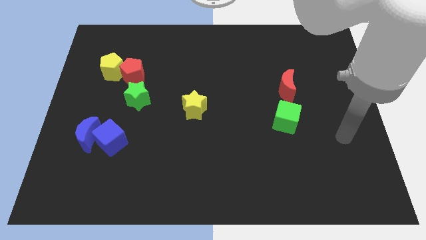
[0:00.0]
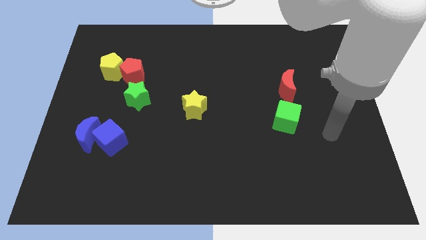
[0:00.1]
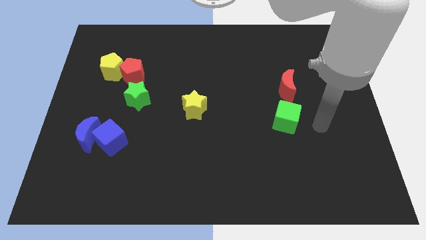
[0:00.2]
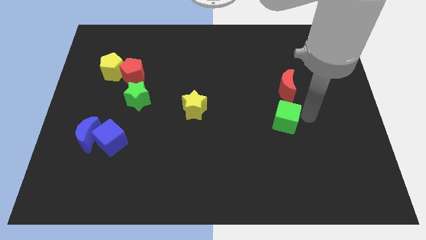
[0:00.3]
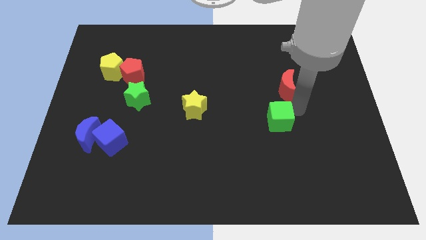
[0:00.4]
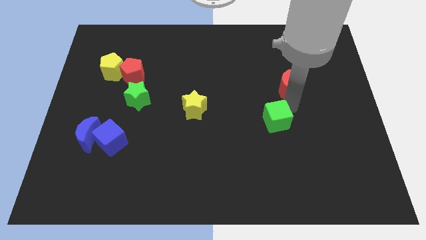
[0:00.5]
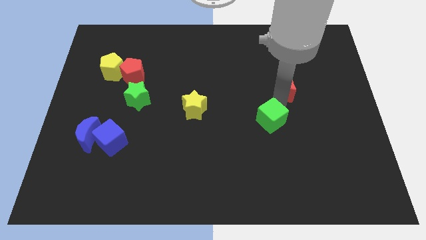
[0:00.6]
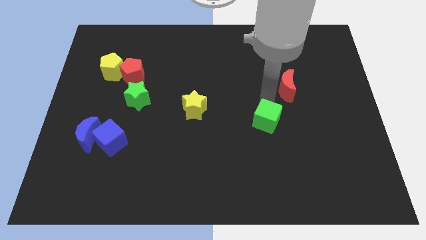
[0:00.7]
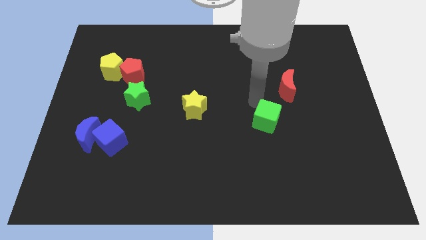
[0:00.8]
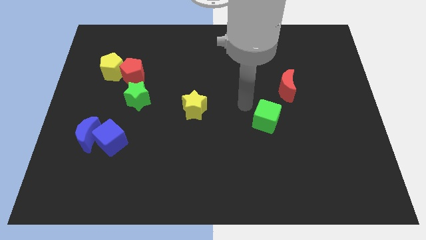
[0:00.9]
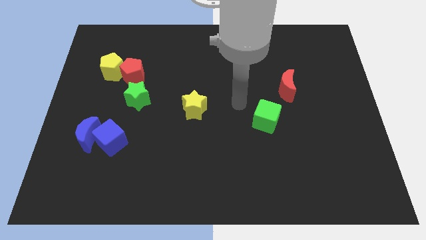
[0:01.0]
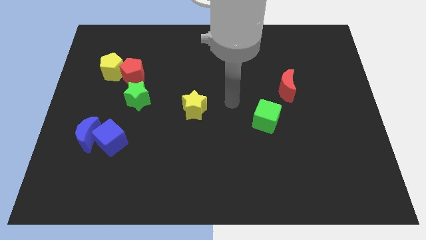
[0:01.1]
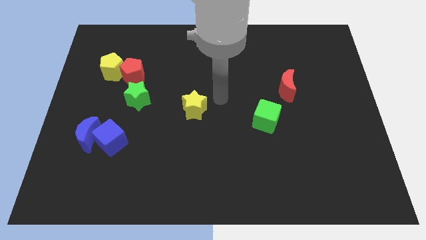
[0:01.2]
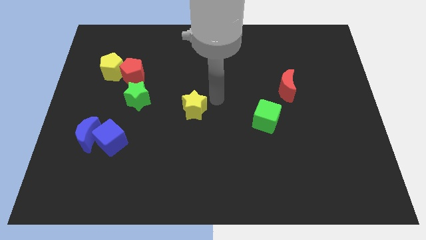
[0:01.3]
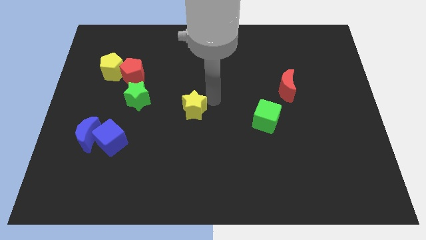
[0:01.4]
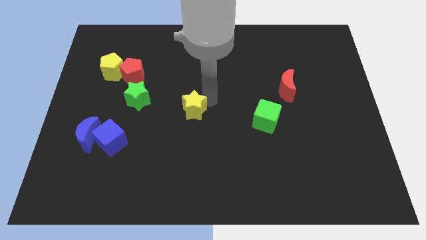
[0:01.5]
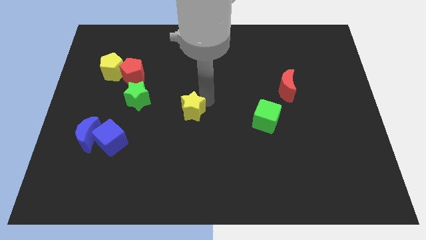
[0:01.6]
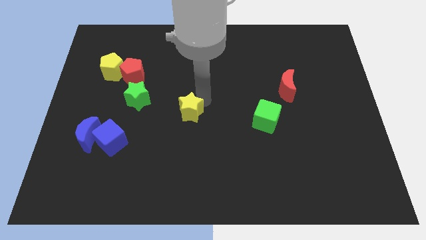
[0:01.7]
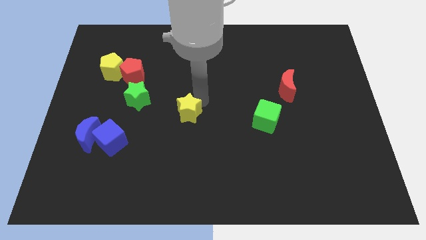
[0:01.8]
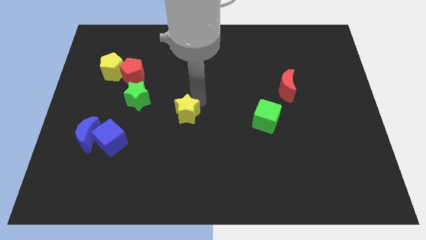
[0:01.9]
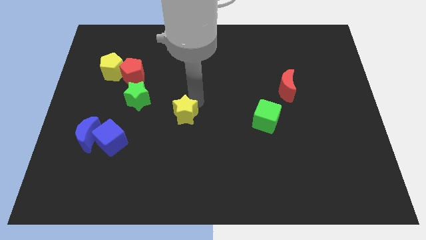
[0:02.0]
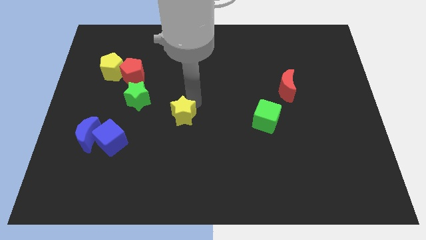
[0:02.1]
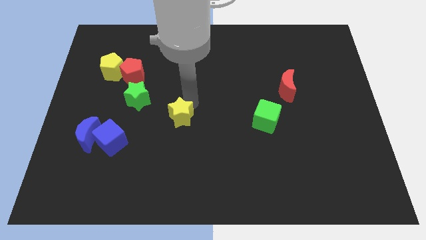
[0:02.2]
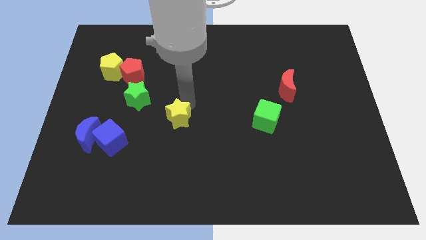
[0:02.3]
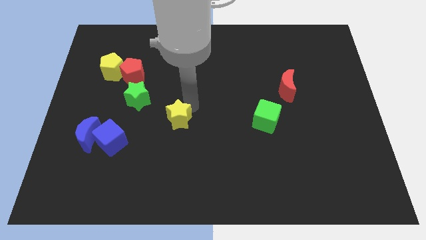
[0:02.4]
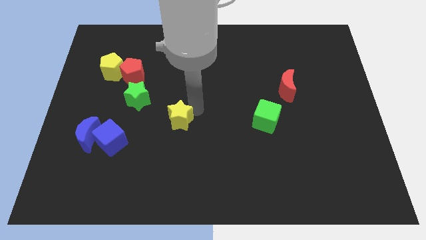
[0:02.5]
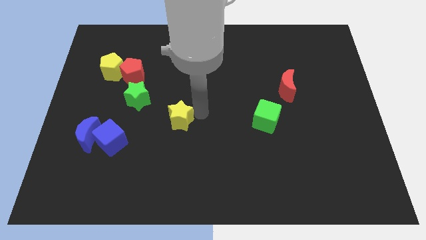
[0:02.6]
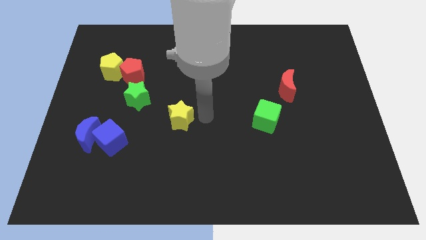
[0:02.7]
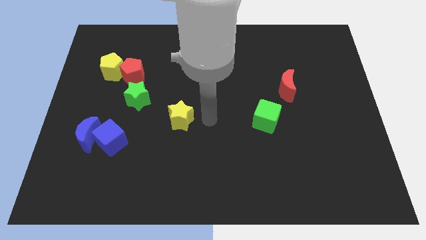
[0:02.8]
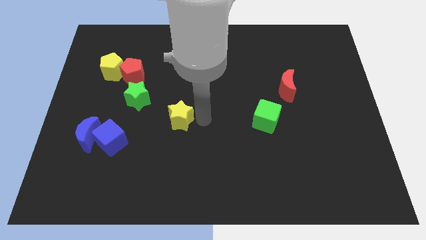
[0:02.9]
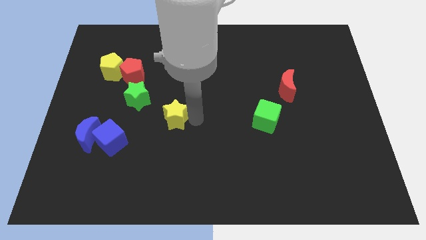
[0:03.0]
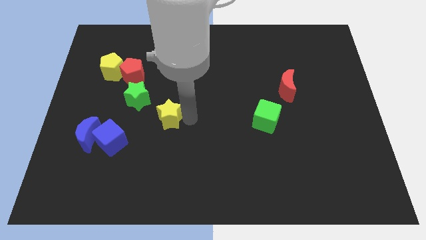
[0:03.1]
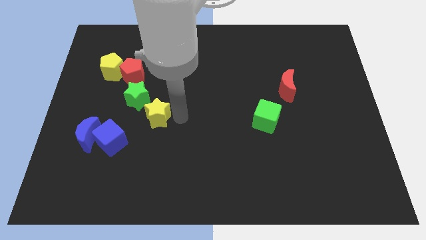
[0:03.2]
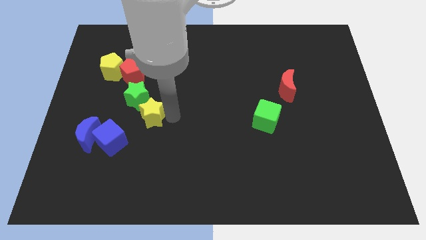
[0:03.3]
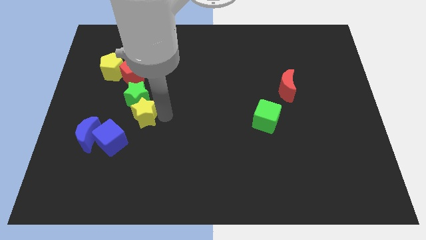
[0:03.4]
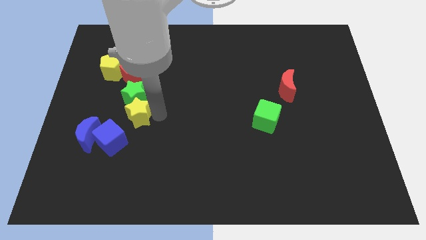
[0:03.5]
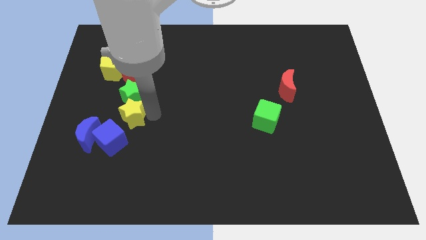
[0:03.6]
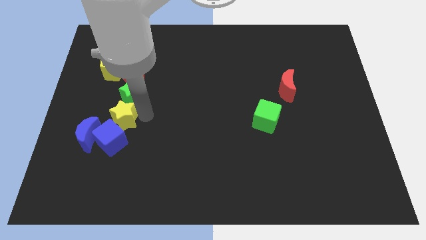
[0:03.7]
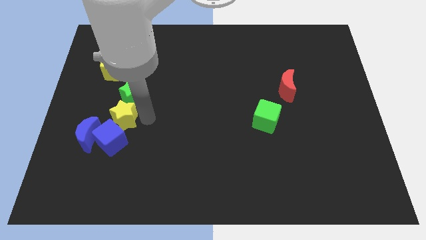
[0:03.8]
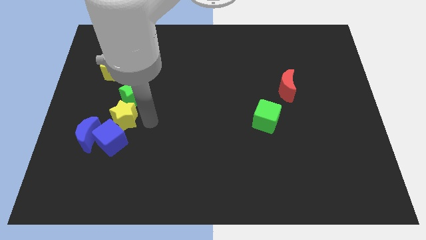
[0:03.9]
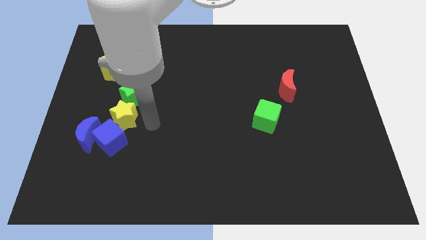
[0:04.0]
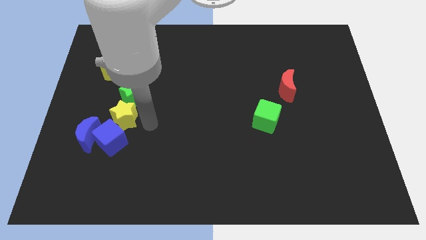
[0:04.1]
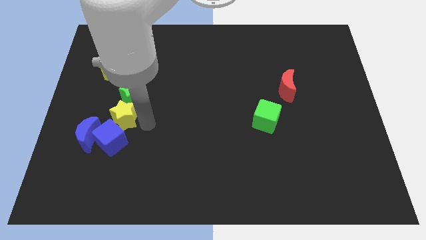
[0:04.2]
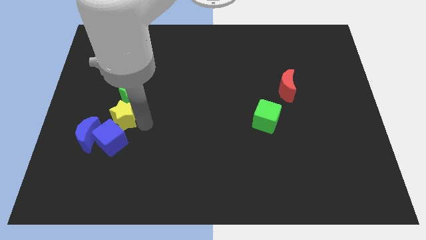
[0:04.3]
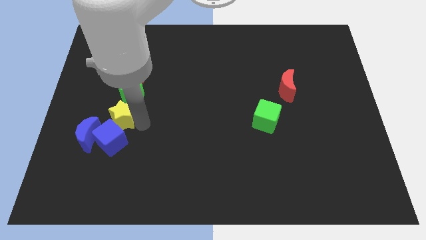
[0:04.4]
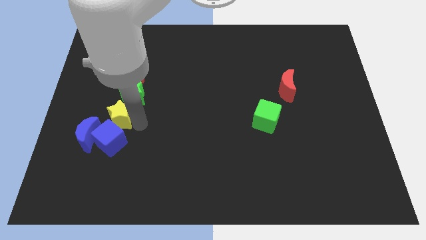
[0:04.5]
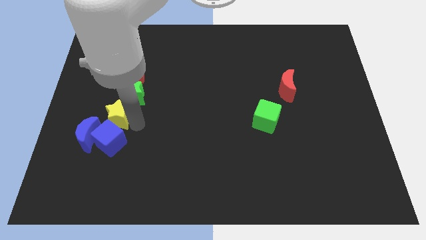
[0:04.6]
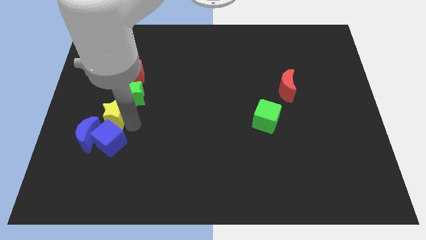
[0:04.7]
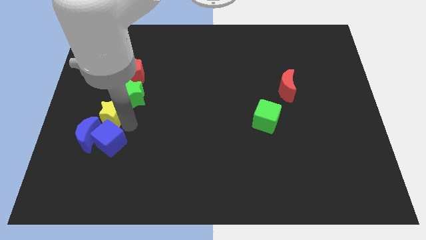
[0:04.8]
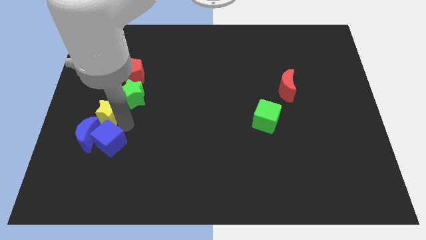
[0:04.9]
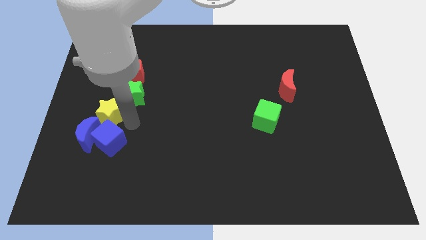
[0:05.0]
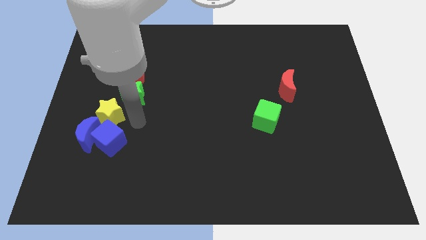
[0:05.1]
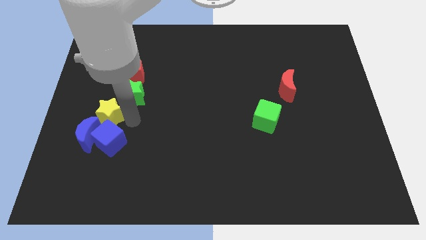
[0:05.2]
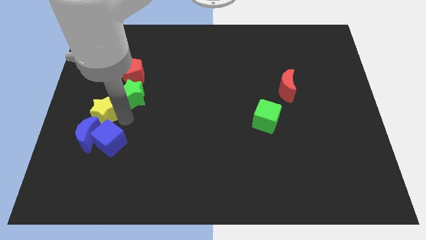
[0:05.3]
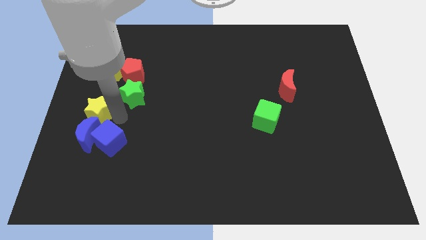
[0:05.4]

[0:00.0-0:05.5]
slide the yellow star to the center left

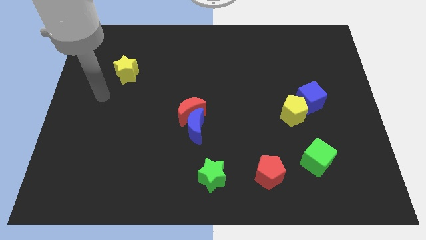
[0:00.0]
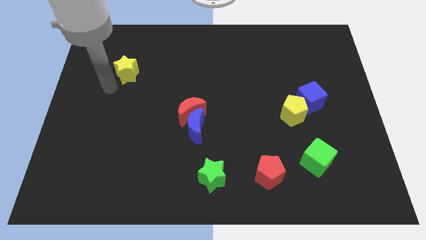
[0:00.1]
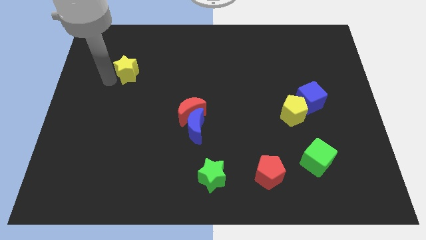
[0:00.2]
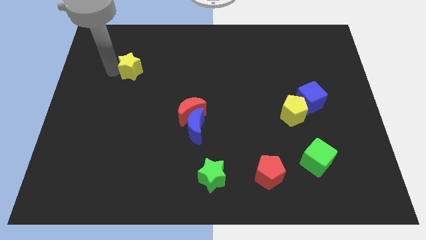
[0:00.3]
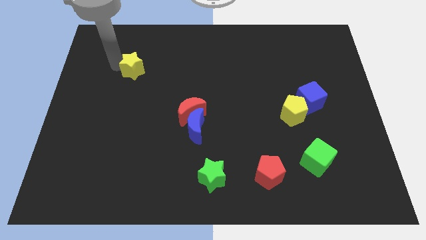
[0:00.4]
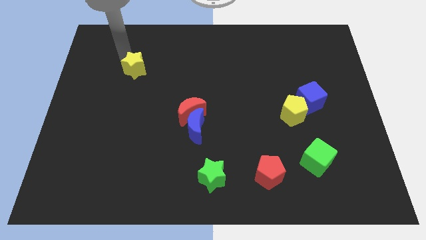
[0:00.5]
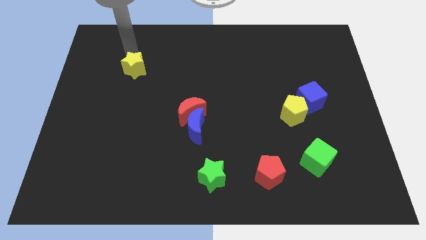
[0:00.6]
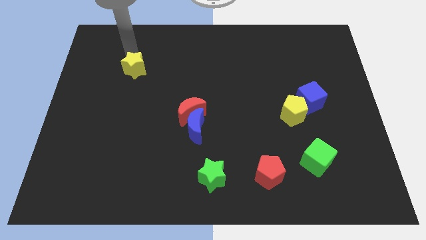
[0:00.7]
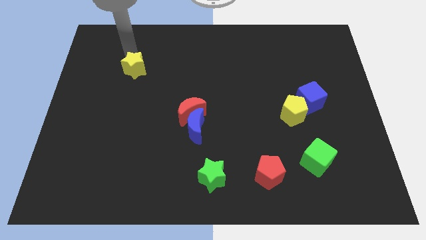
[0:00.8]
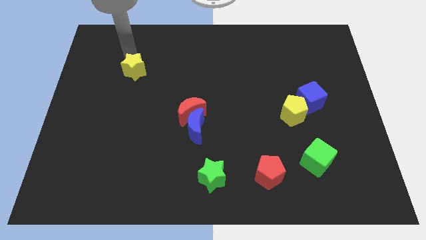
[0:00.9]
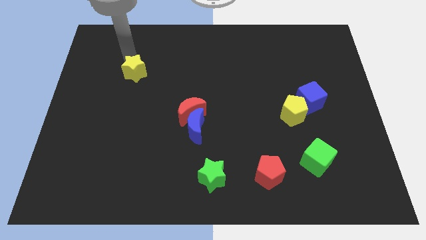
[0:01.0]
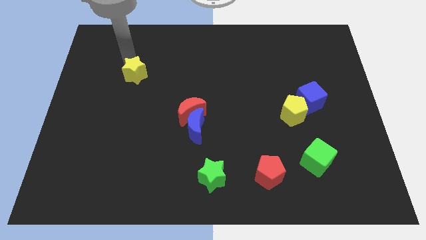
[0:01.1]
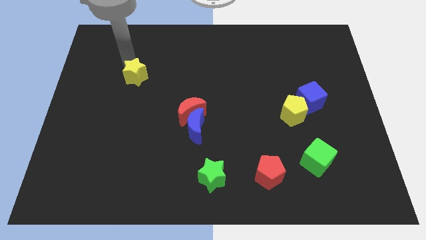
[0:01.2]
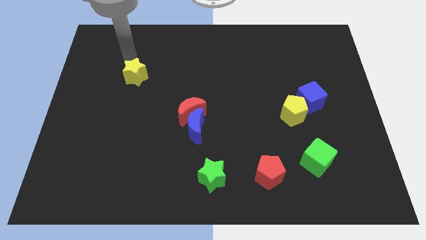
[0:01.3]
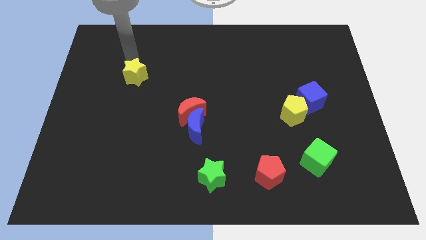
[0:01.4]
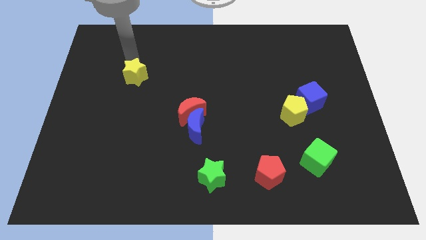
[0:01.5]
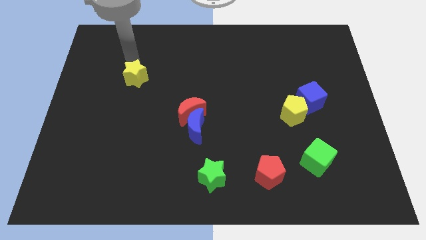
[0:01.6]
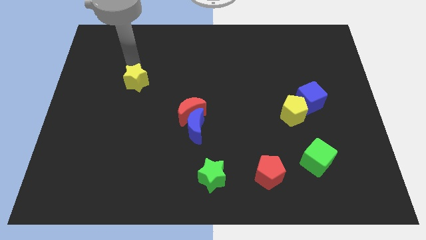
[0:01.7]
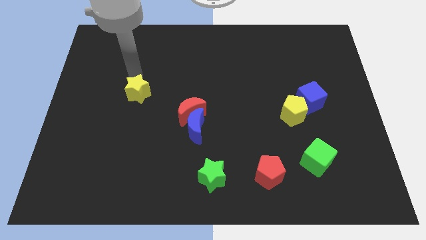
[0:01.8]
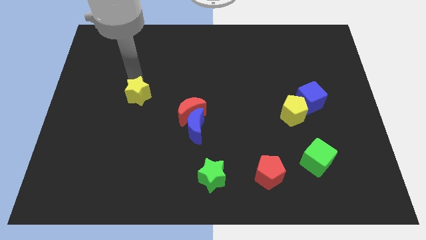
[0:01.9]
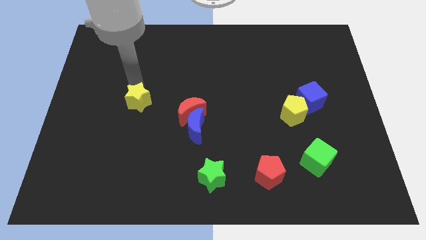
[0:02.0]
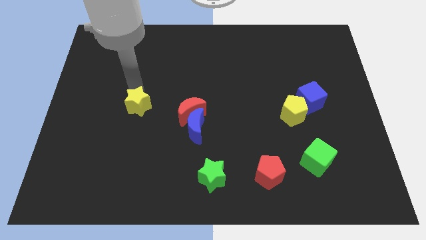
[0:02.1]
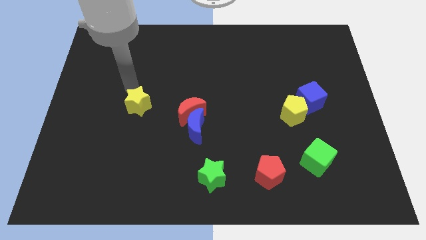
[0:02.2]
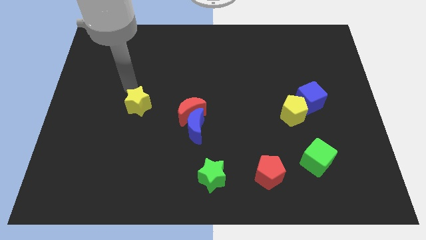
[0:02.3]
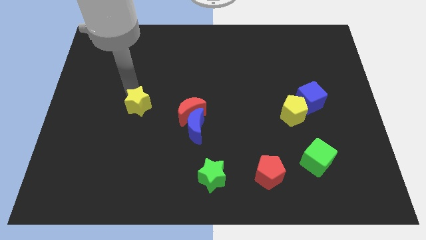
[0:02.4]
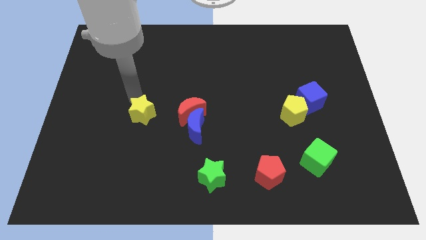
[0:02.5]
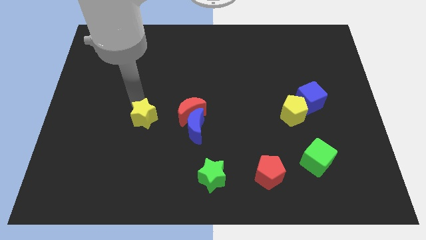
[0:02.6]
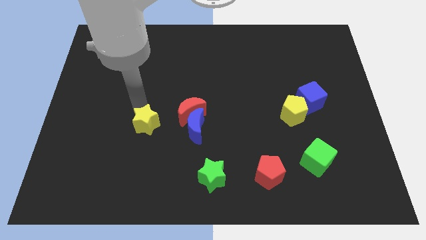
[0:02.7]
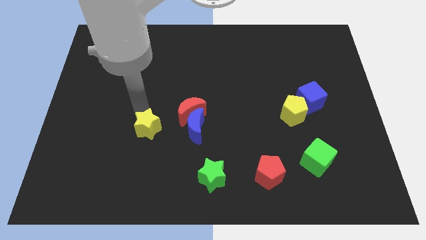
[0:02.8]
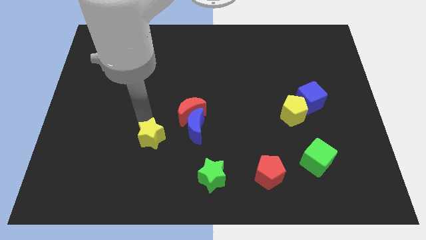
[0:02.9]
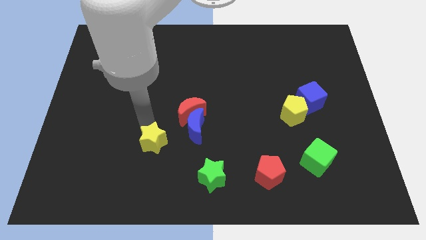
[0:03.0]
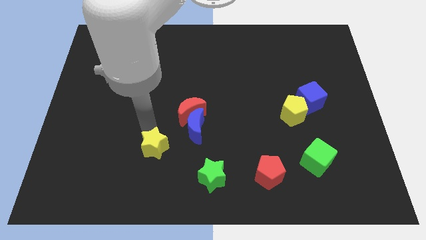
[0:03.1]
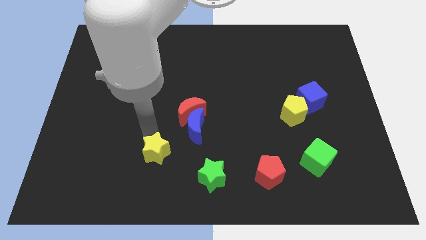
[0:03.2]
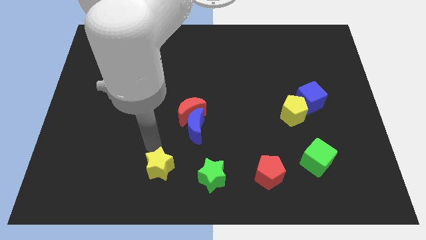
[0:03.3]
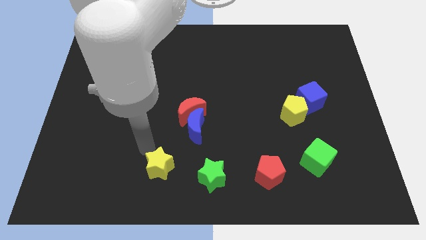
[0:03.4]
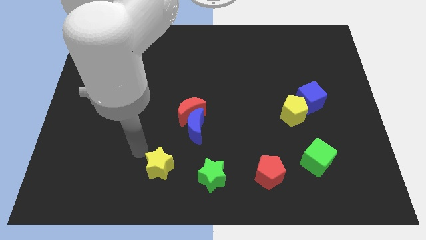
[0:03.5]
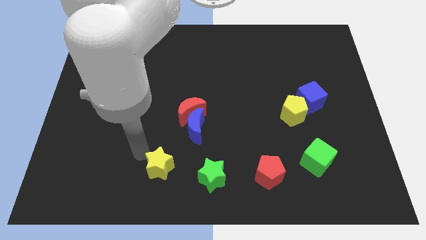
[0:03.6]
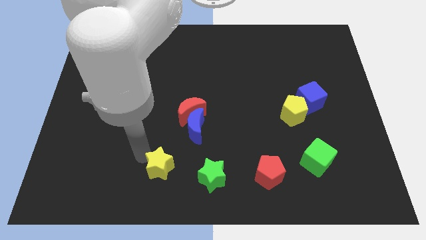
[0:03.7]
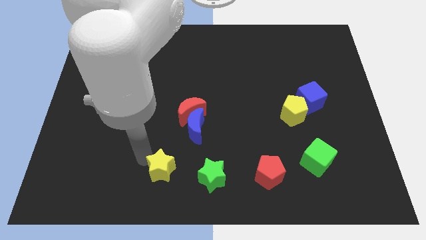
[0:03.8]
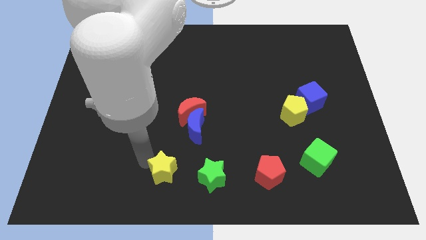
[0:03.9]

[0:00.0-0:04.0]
push the yellow star to the bottom side
